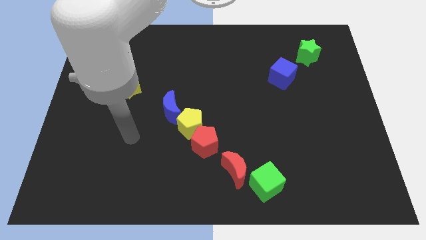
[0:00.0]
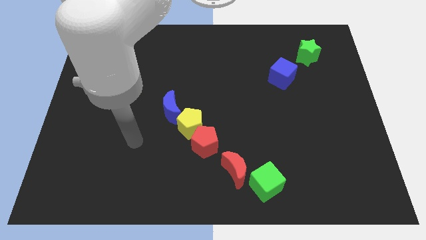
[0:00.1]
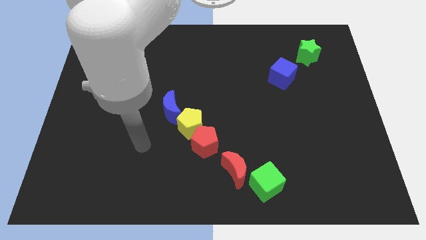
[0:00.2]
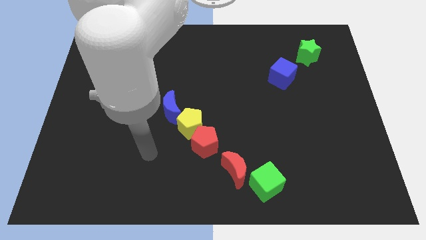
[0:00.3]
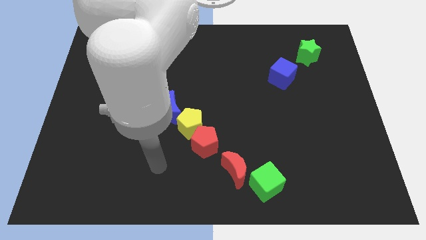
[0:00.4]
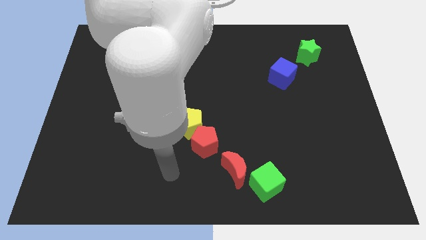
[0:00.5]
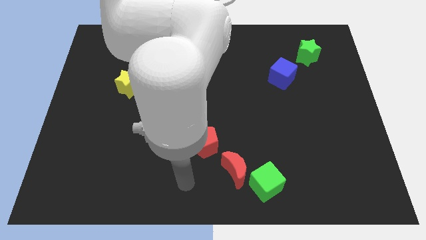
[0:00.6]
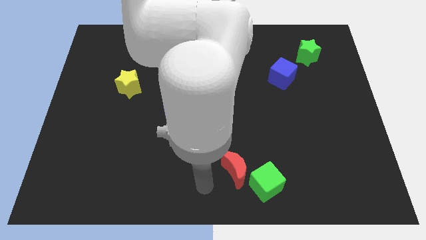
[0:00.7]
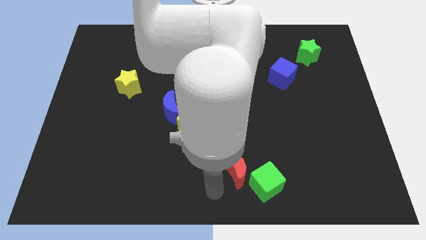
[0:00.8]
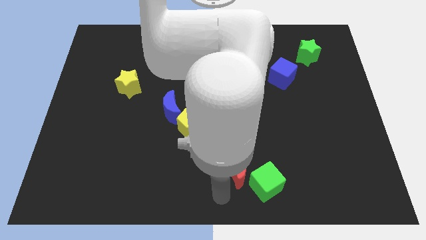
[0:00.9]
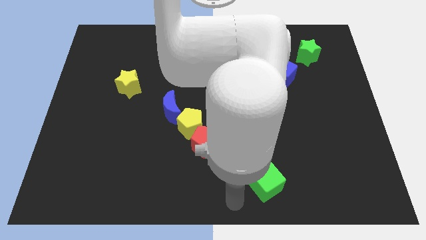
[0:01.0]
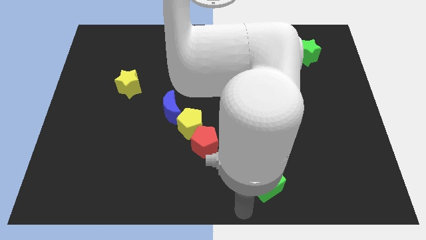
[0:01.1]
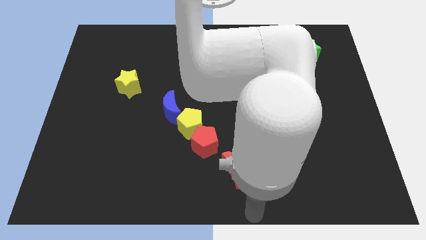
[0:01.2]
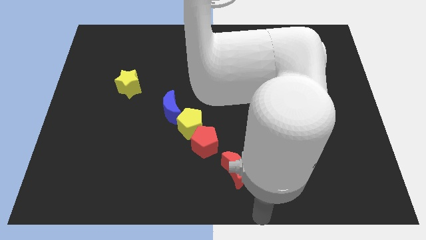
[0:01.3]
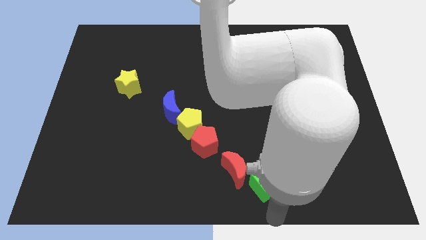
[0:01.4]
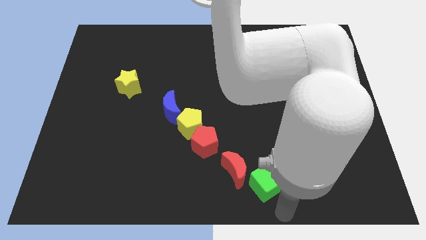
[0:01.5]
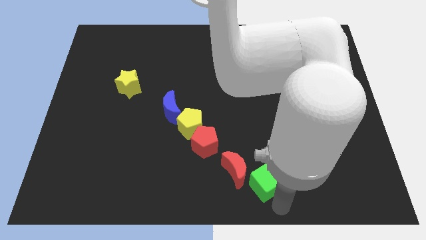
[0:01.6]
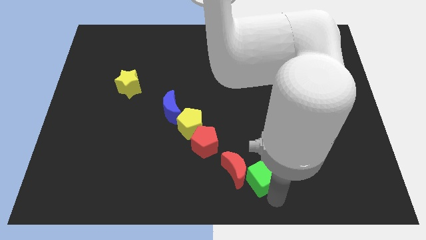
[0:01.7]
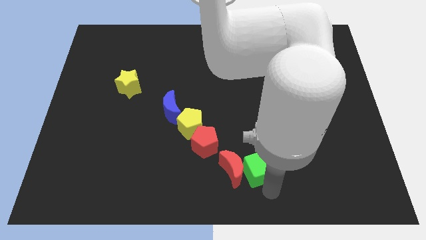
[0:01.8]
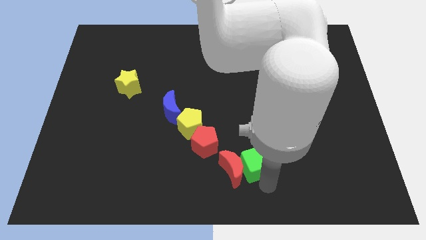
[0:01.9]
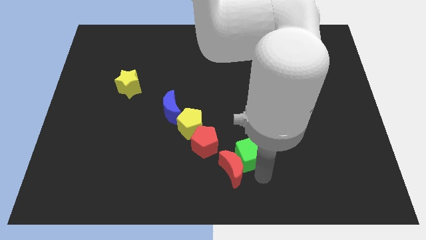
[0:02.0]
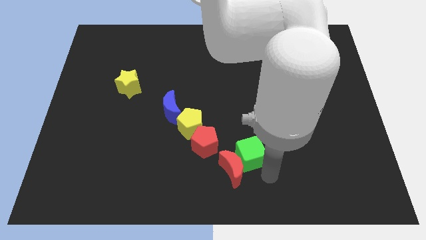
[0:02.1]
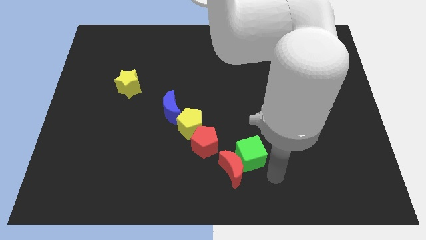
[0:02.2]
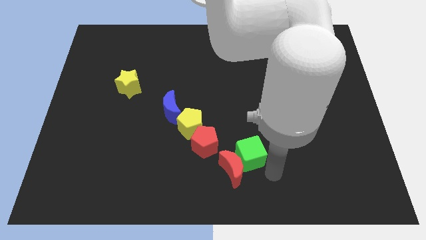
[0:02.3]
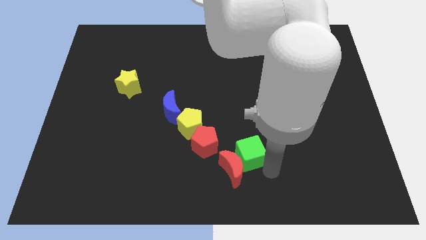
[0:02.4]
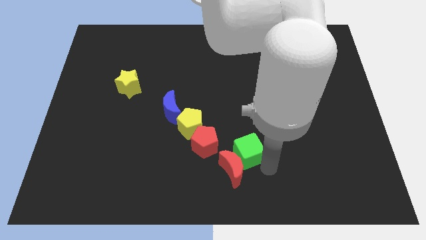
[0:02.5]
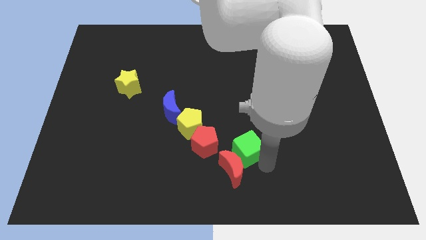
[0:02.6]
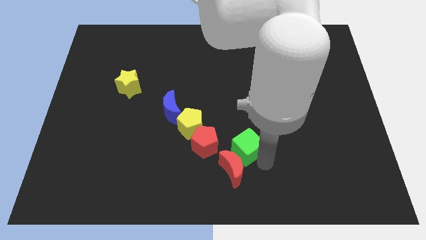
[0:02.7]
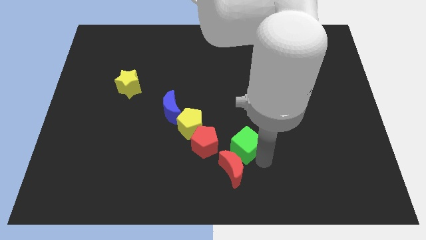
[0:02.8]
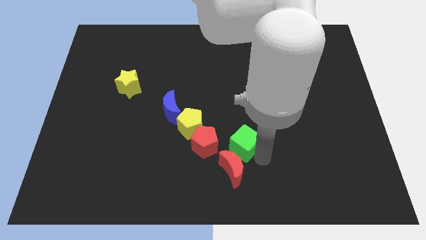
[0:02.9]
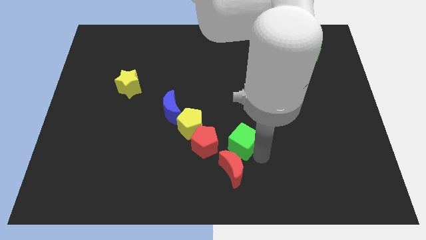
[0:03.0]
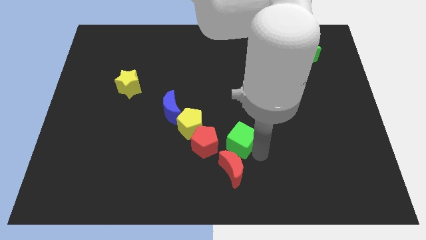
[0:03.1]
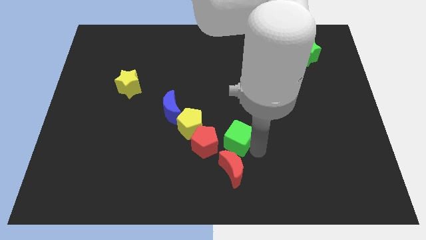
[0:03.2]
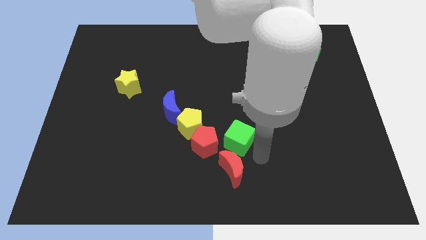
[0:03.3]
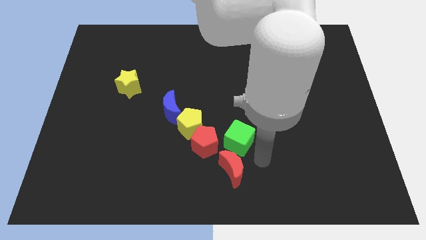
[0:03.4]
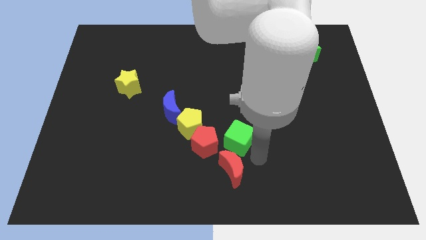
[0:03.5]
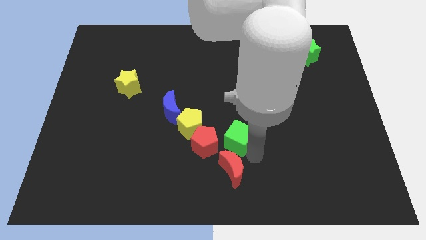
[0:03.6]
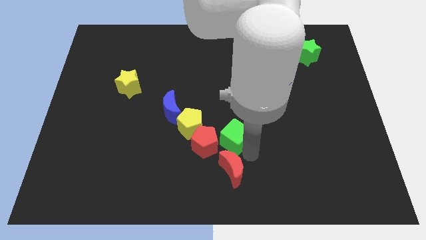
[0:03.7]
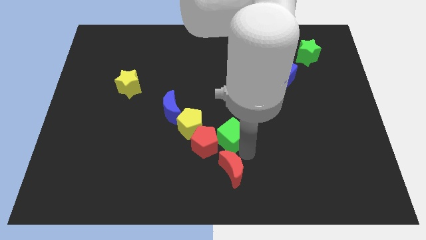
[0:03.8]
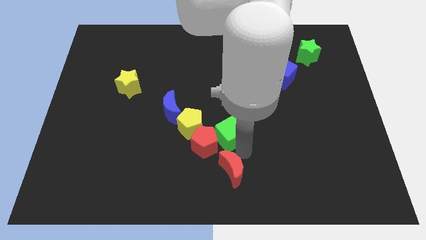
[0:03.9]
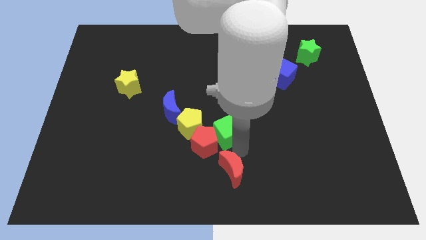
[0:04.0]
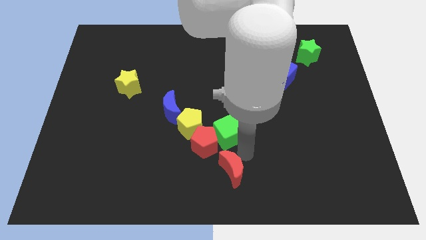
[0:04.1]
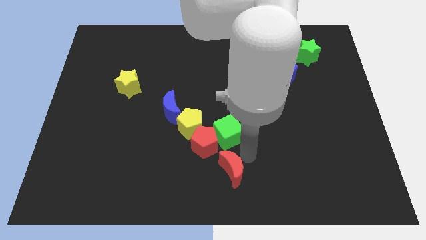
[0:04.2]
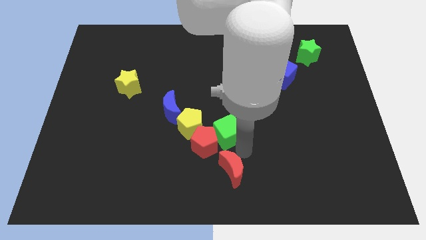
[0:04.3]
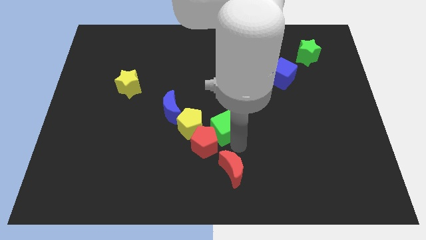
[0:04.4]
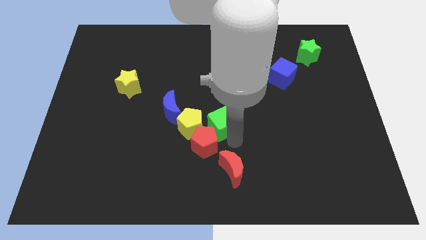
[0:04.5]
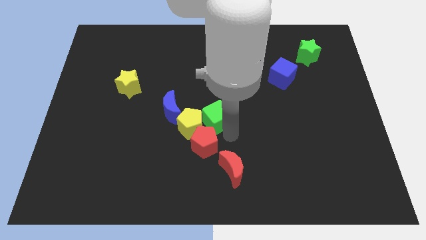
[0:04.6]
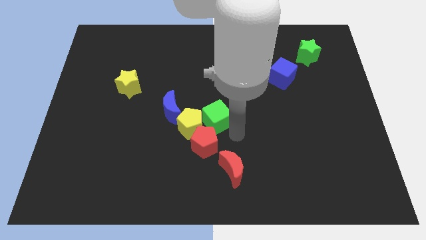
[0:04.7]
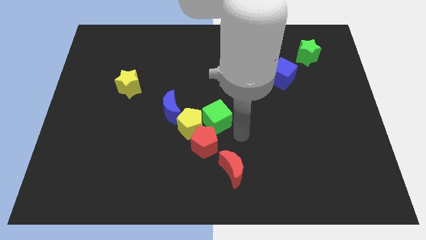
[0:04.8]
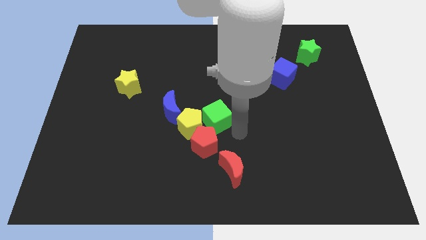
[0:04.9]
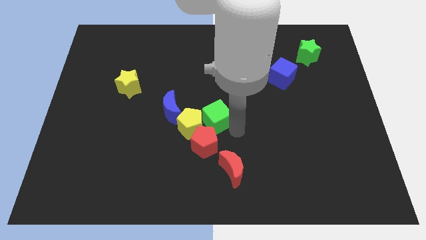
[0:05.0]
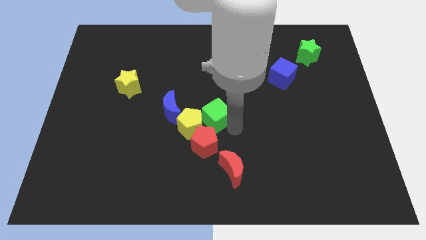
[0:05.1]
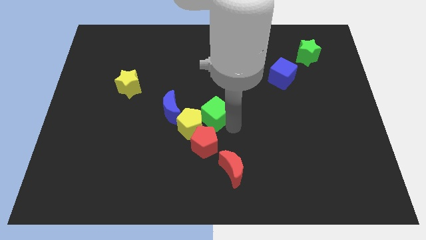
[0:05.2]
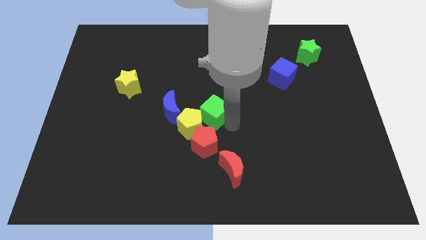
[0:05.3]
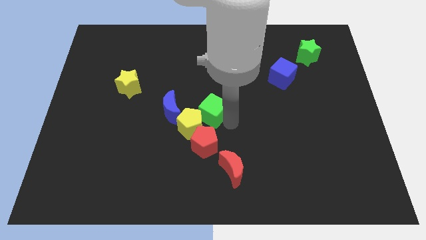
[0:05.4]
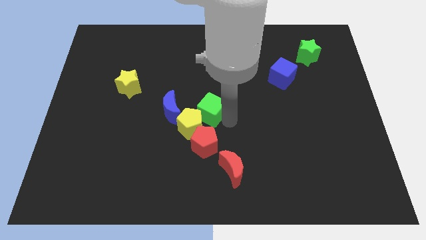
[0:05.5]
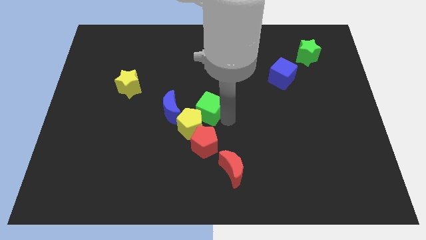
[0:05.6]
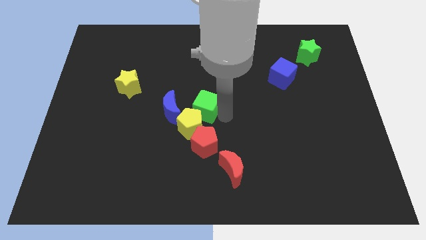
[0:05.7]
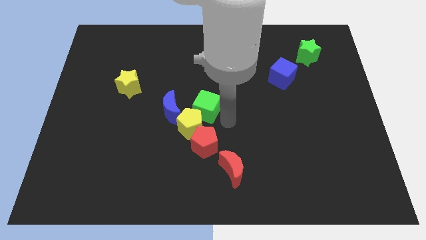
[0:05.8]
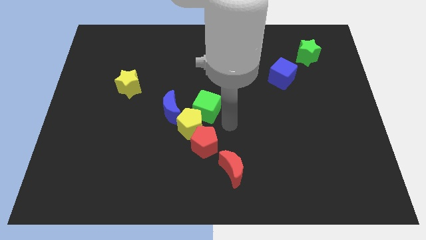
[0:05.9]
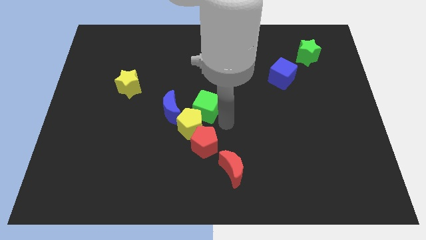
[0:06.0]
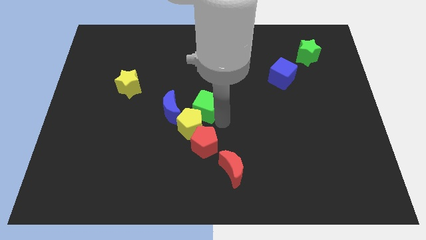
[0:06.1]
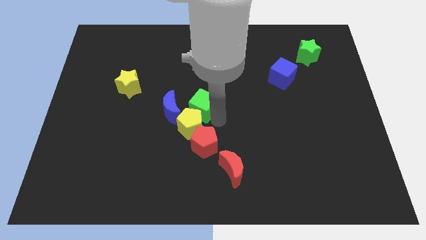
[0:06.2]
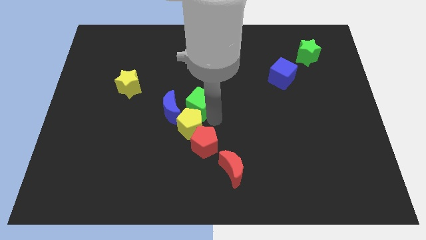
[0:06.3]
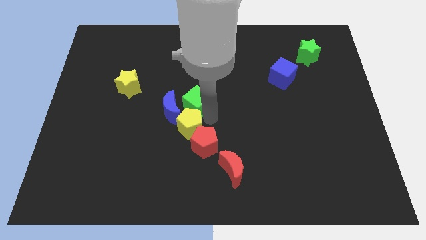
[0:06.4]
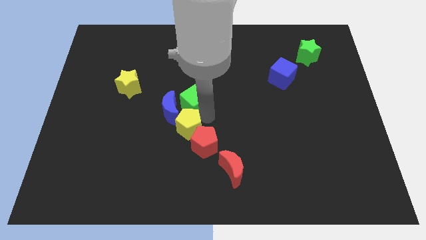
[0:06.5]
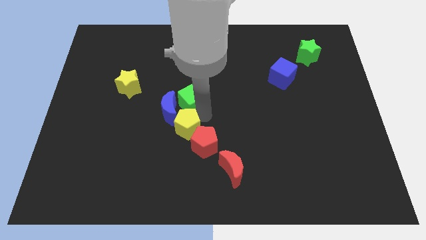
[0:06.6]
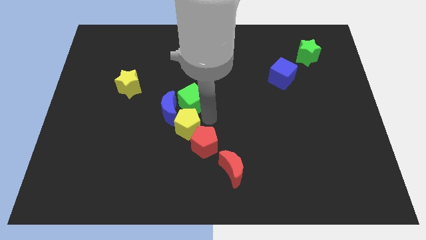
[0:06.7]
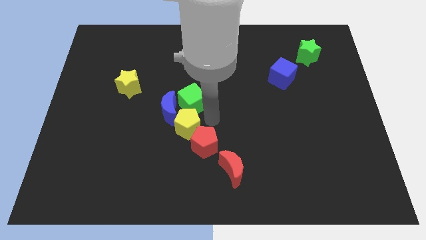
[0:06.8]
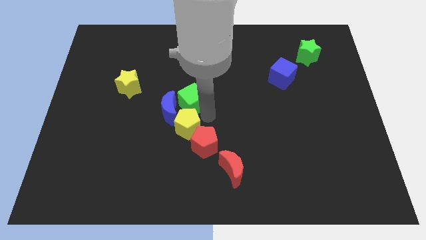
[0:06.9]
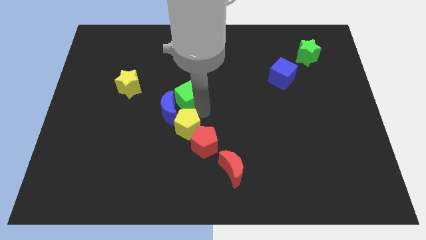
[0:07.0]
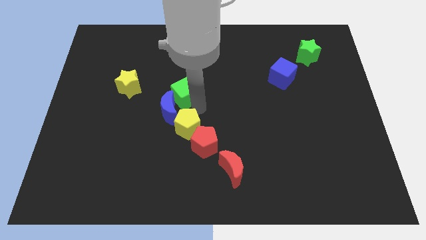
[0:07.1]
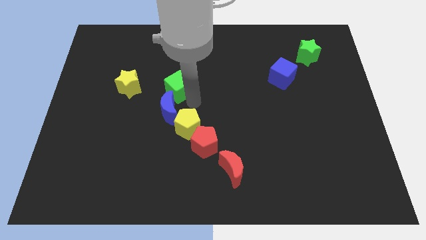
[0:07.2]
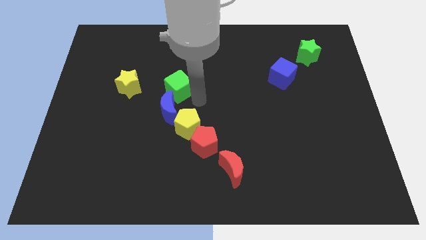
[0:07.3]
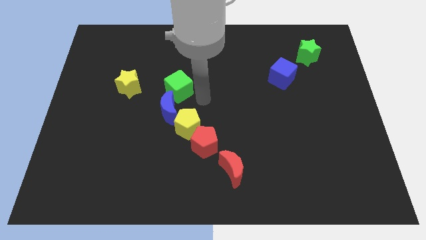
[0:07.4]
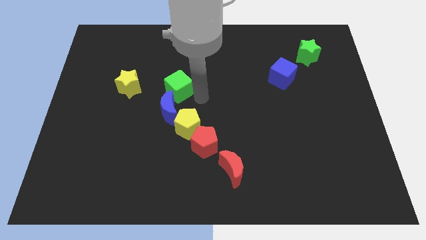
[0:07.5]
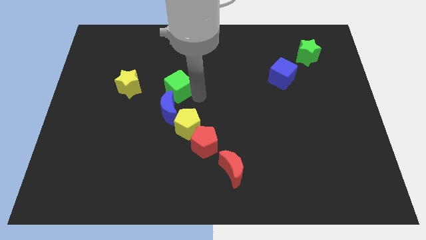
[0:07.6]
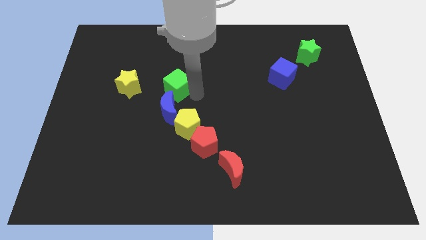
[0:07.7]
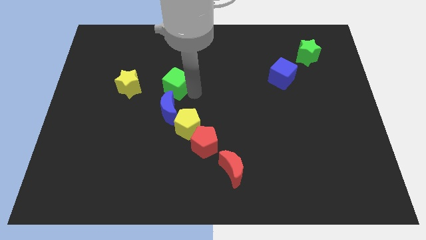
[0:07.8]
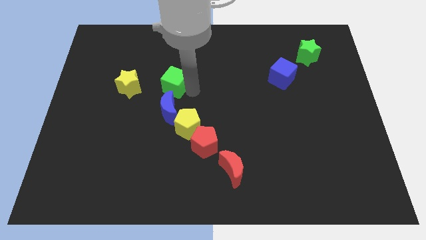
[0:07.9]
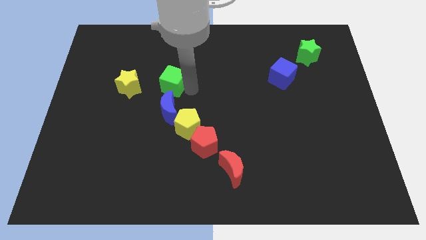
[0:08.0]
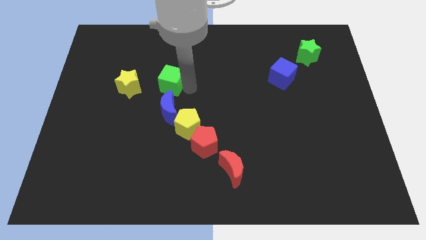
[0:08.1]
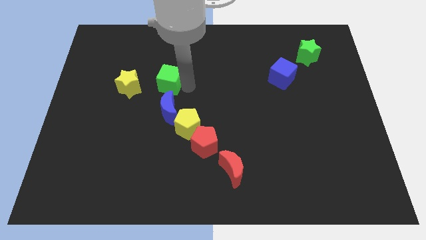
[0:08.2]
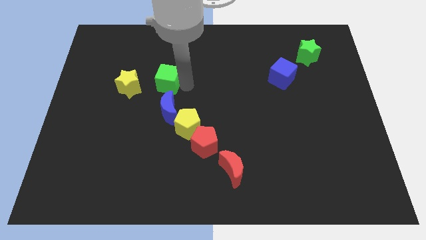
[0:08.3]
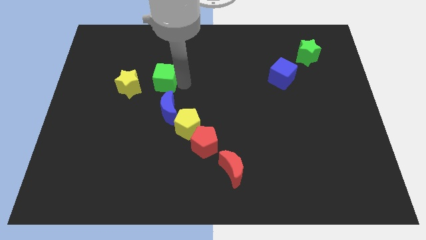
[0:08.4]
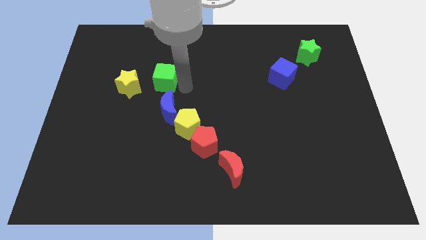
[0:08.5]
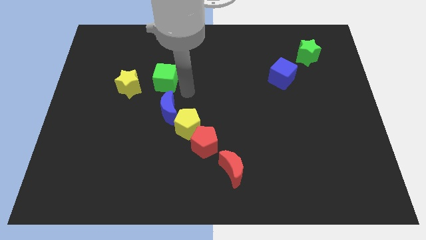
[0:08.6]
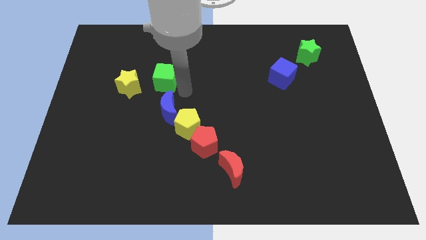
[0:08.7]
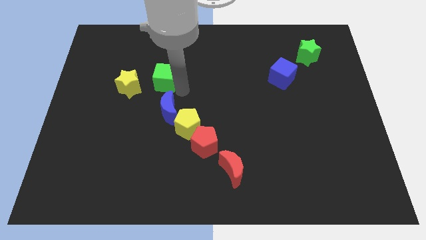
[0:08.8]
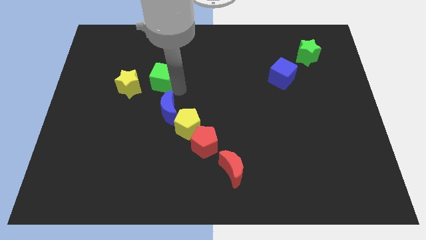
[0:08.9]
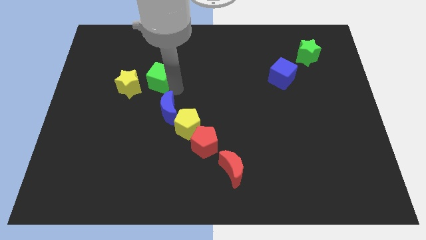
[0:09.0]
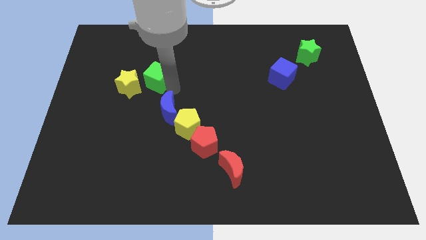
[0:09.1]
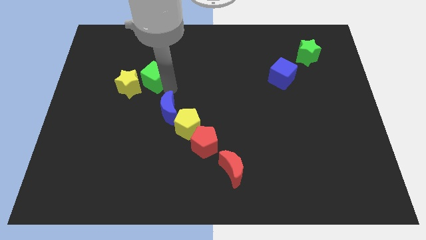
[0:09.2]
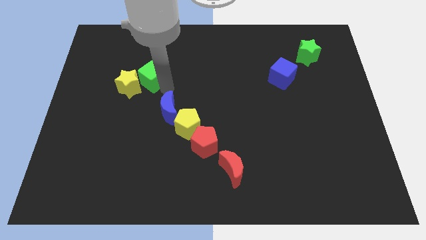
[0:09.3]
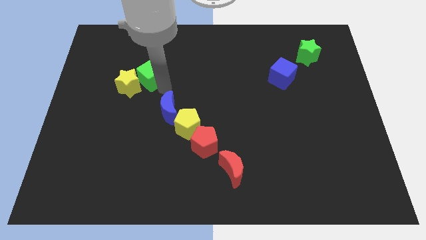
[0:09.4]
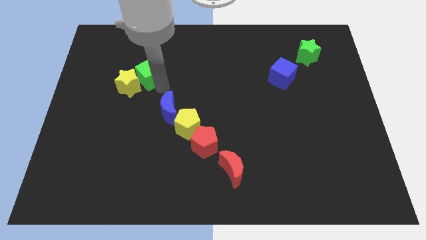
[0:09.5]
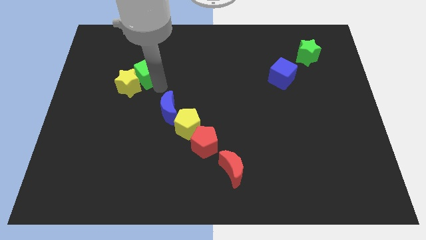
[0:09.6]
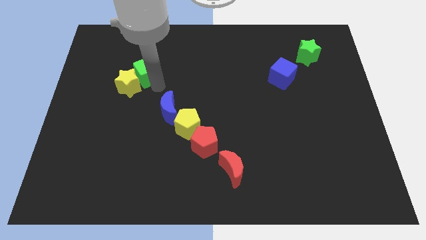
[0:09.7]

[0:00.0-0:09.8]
push the green cube above the yellow star
